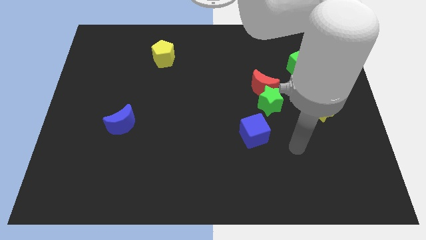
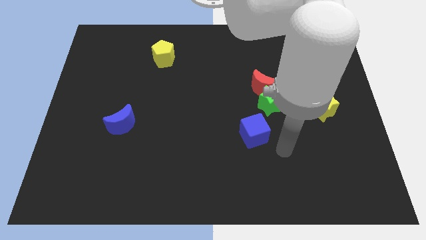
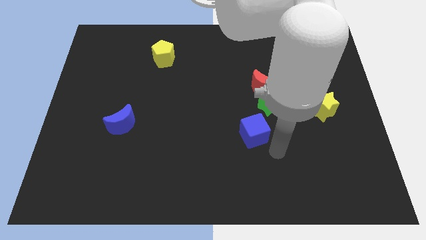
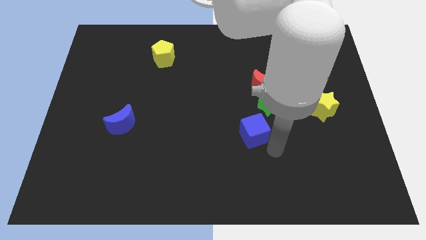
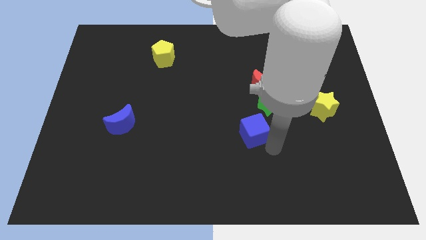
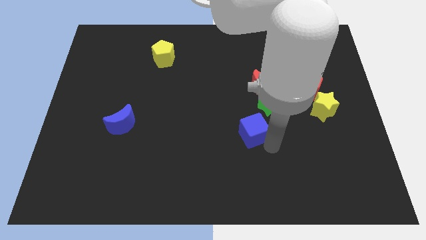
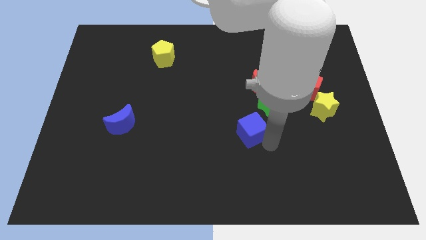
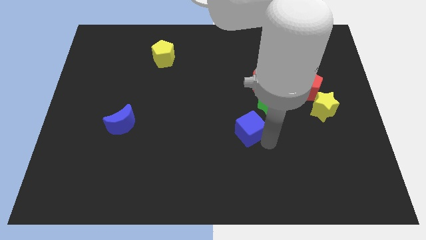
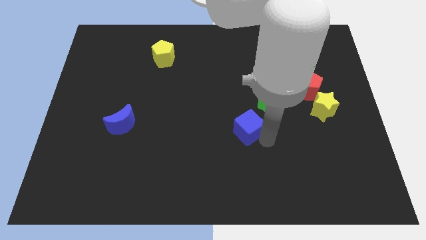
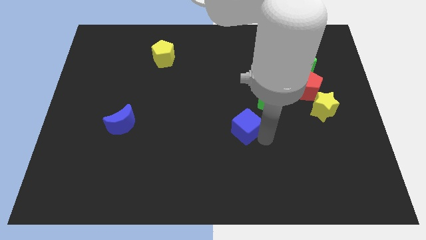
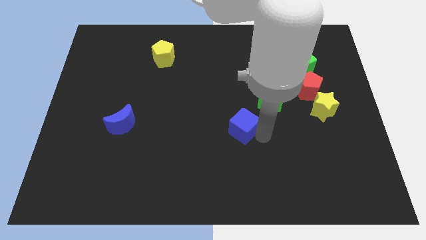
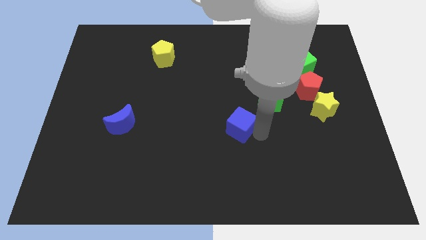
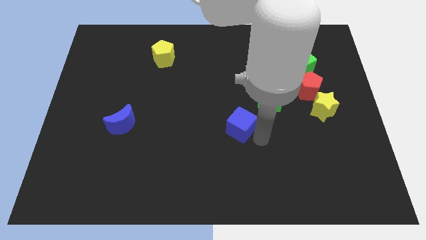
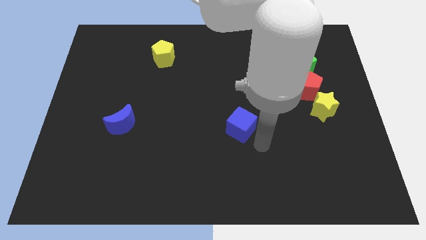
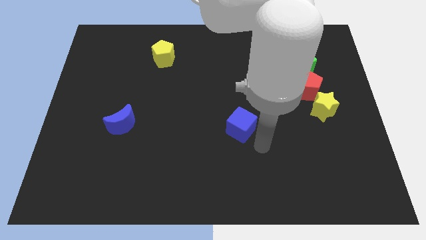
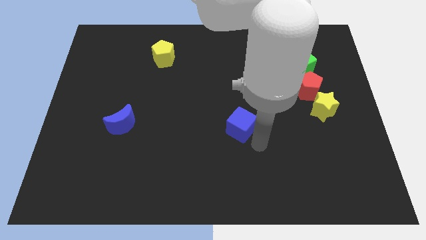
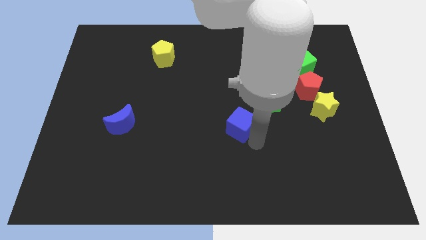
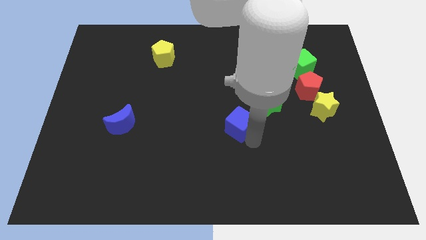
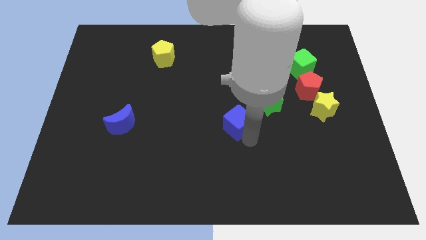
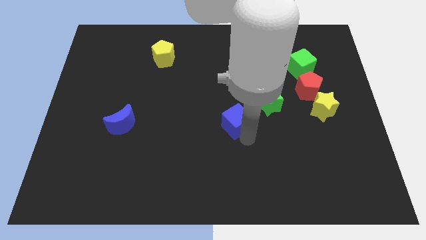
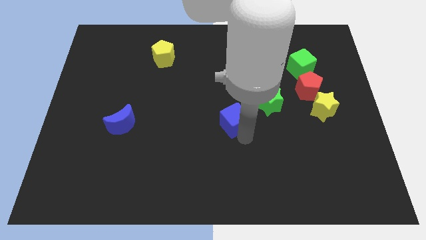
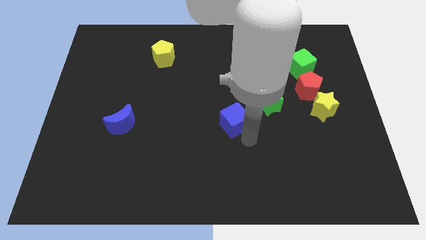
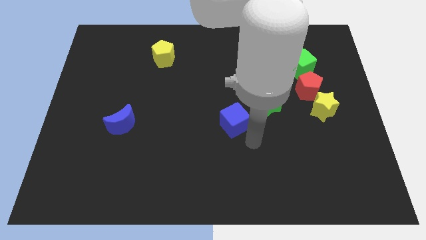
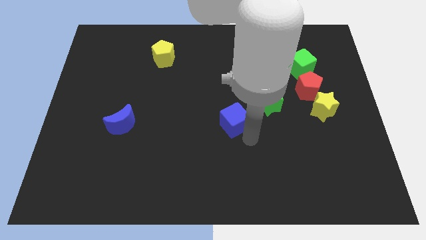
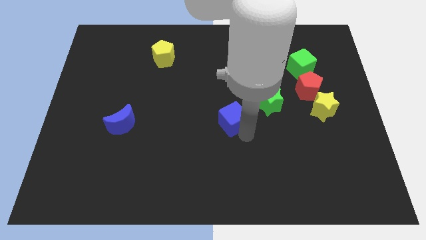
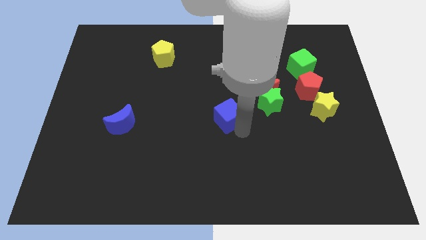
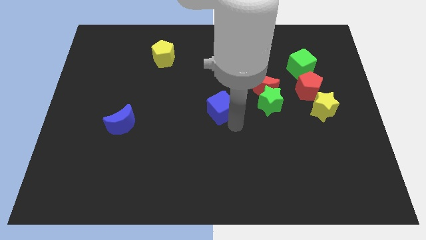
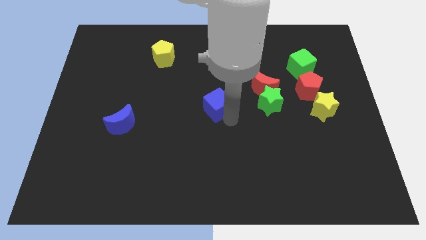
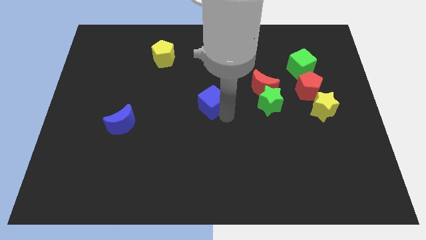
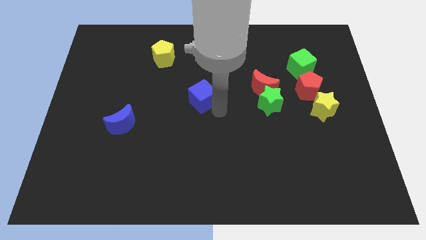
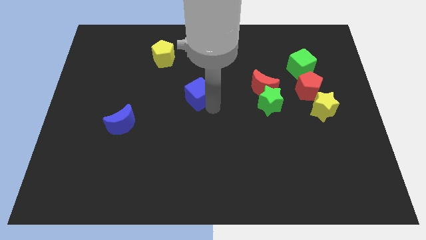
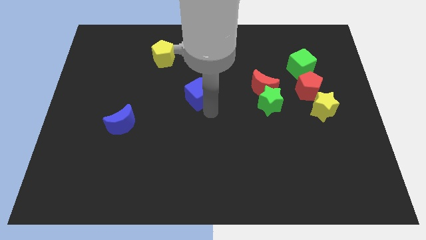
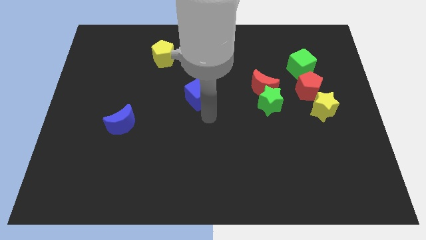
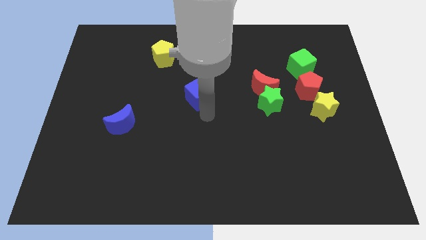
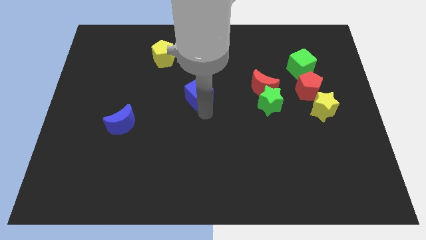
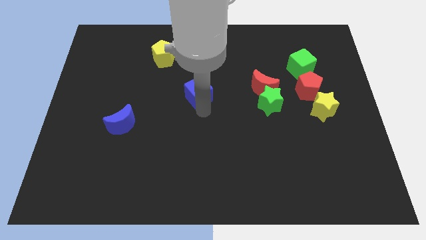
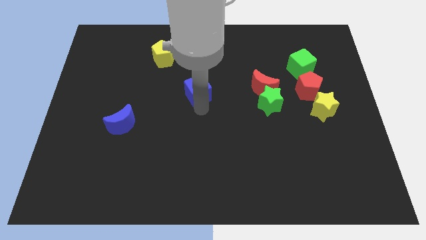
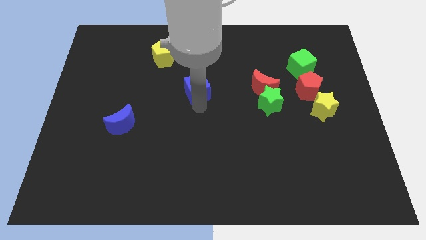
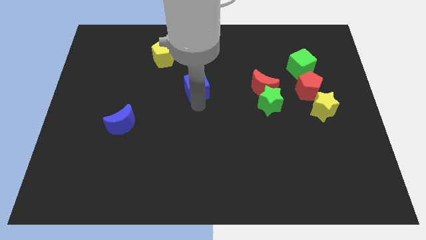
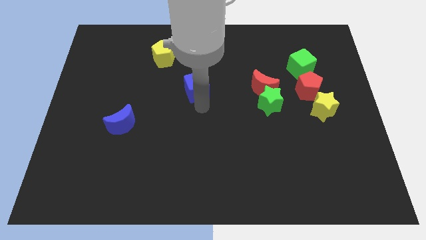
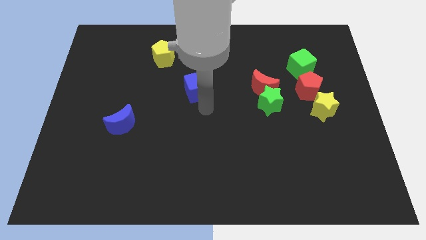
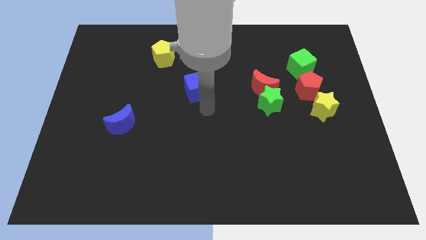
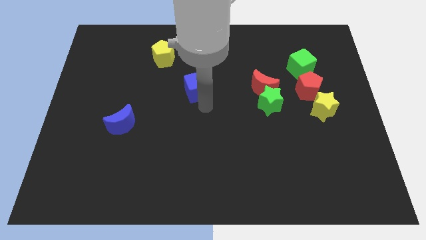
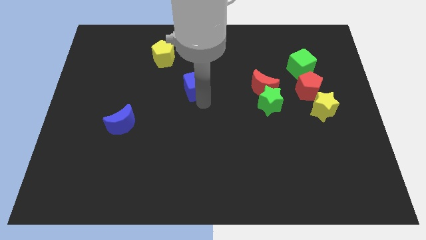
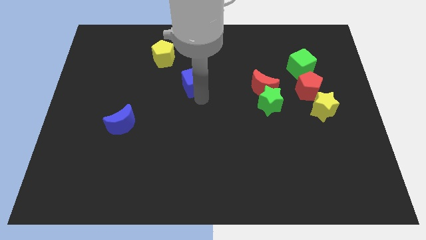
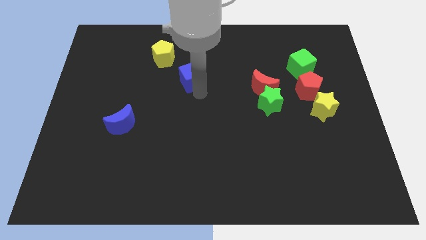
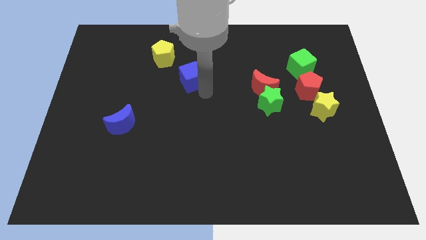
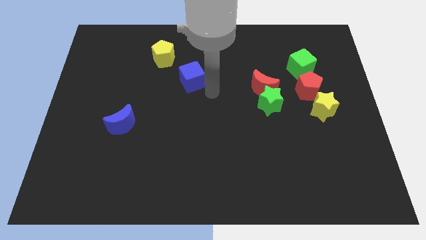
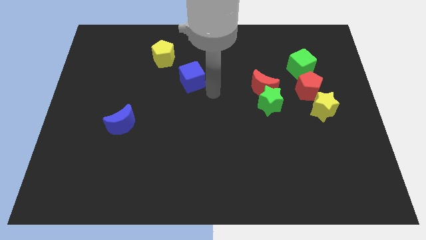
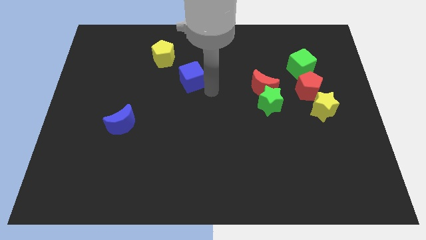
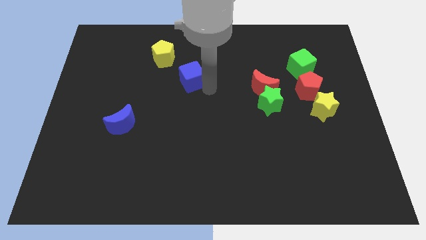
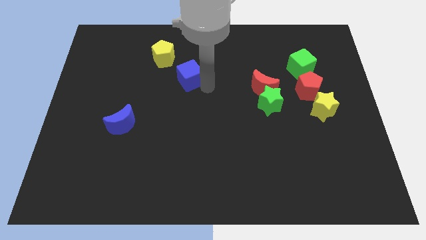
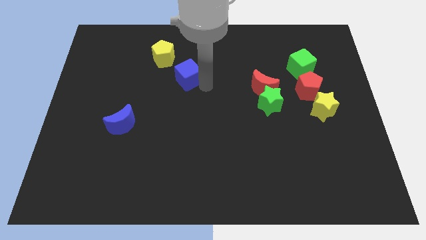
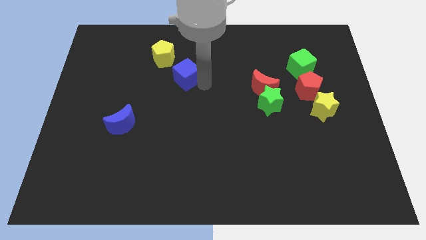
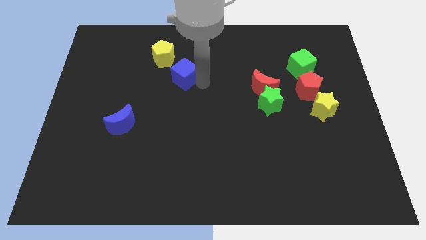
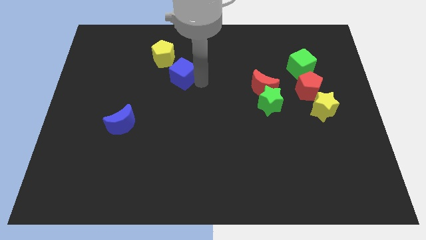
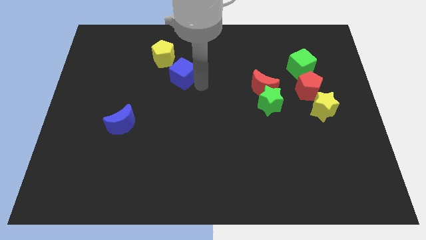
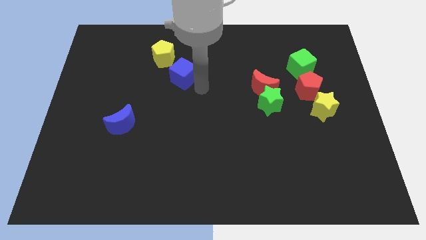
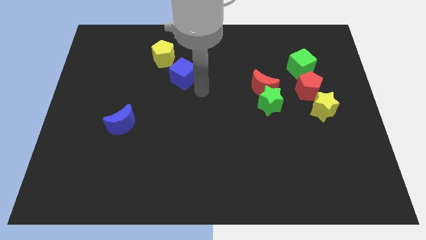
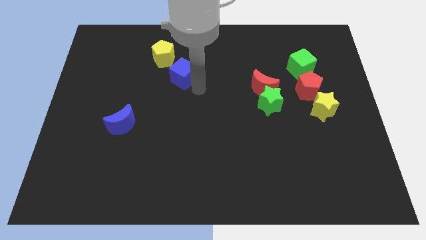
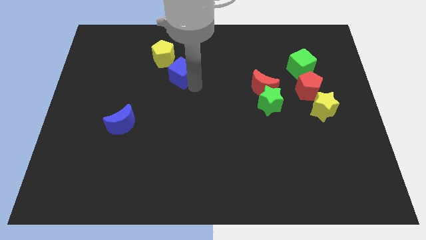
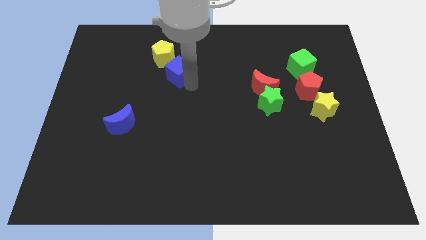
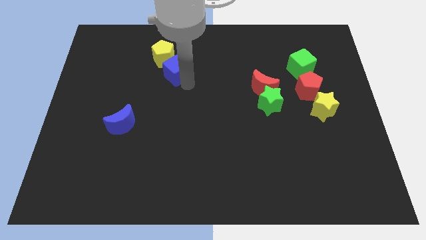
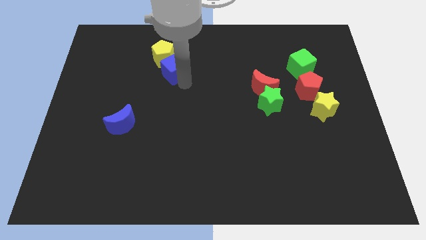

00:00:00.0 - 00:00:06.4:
push the blue cube towards the yellow pentagon

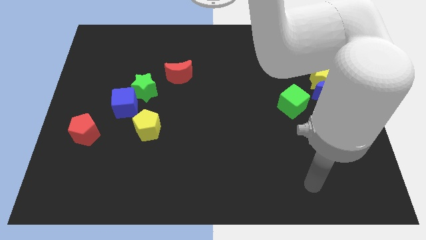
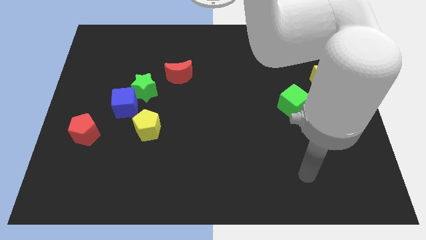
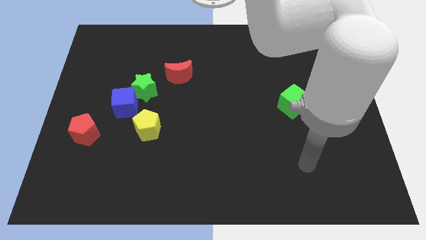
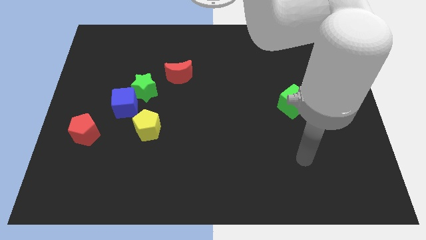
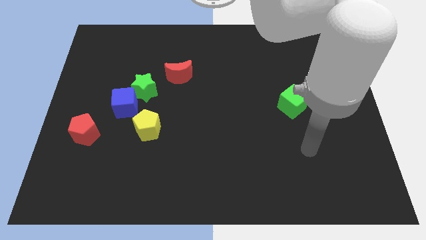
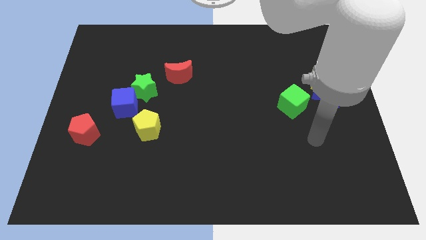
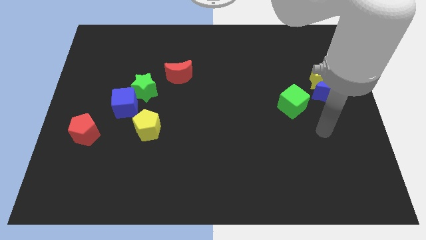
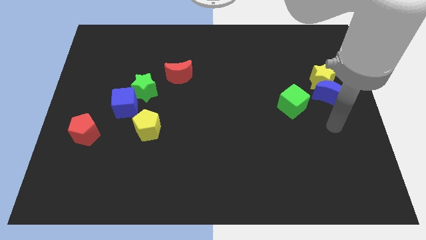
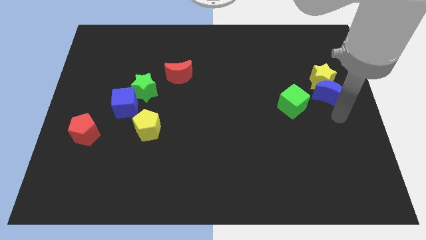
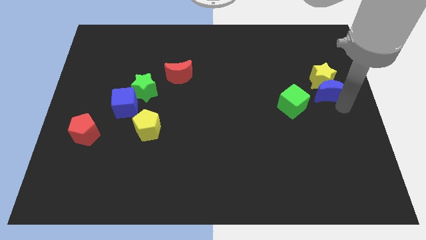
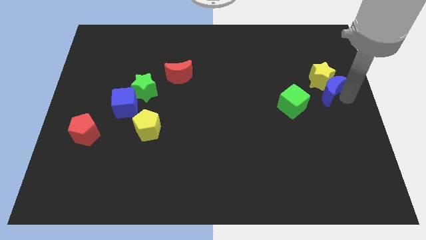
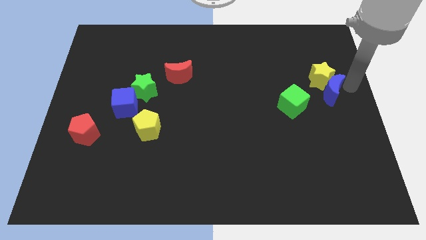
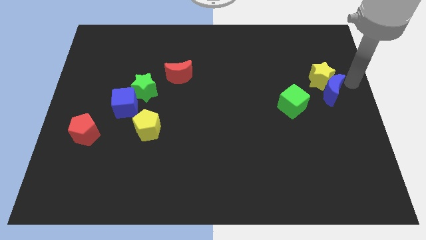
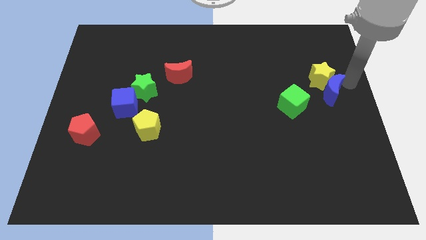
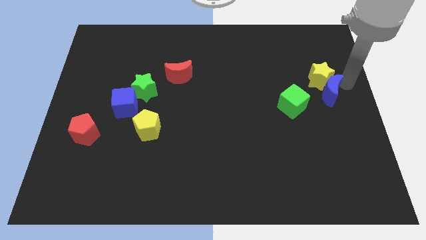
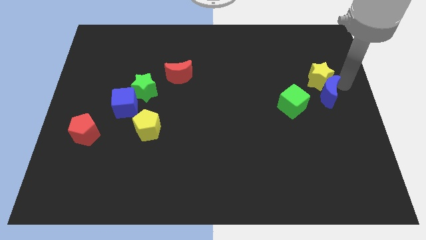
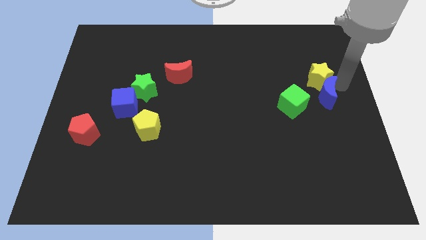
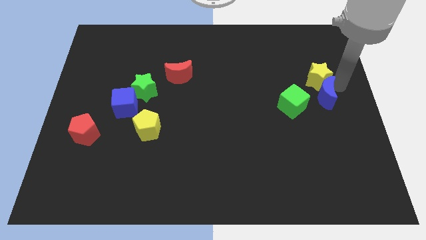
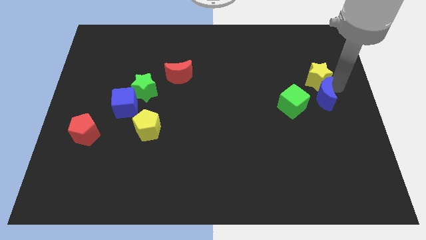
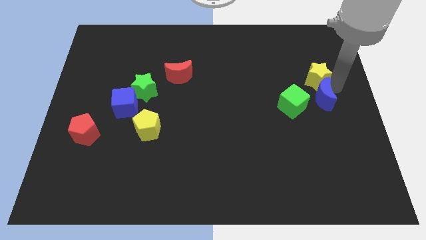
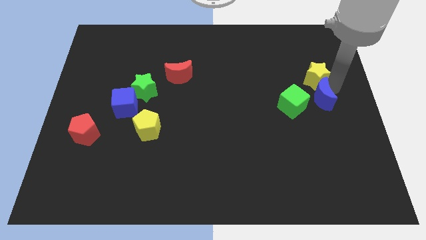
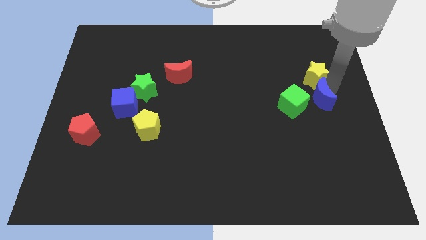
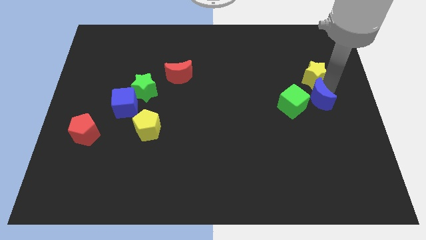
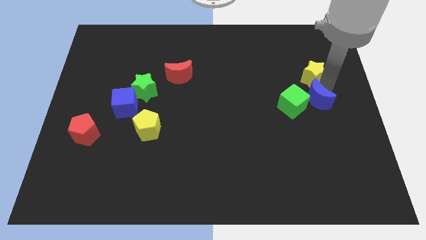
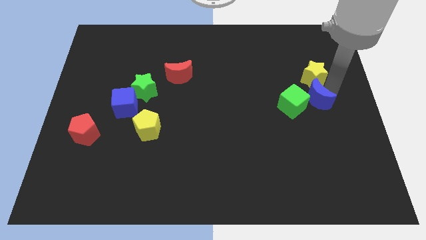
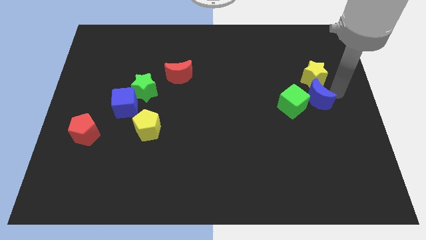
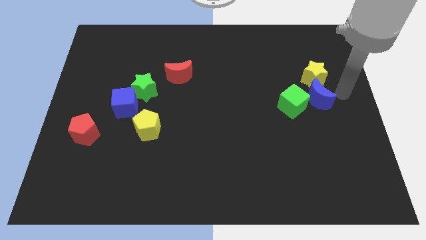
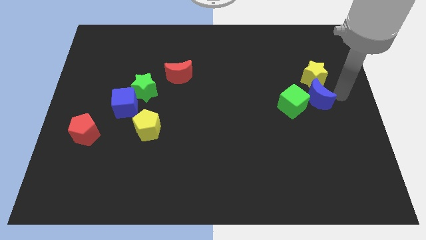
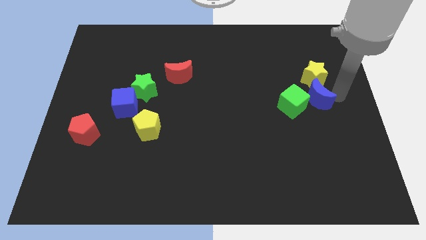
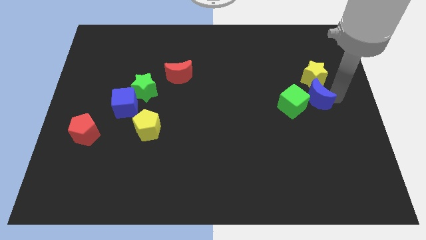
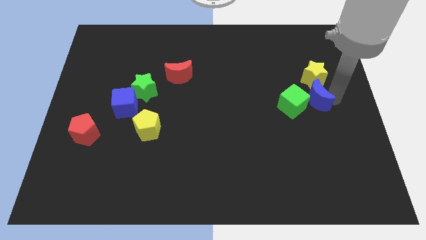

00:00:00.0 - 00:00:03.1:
push the blue moon towards the green cube
